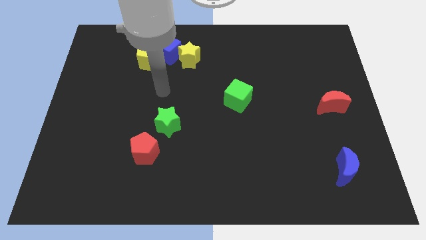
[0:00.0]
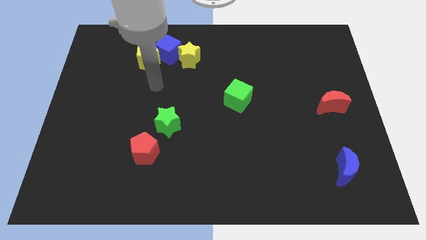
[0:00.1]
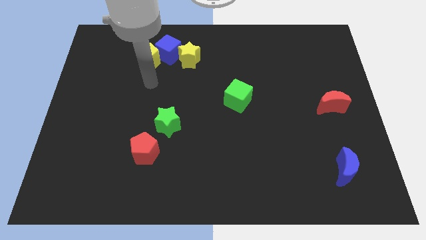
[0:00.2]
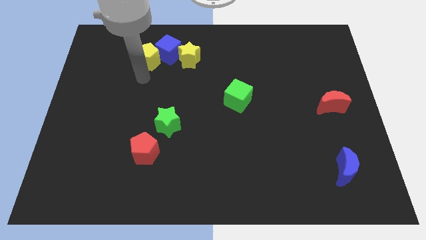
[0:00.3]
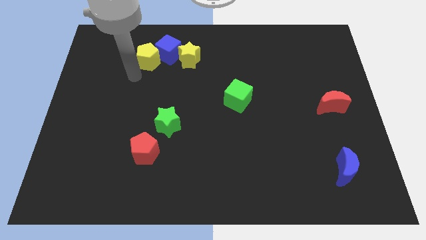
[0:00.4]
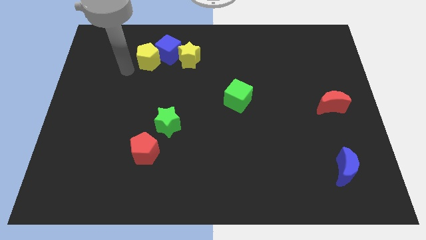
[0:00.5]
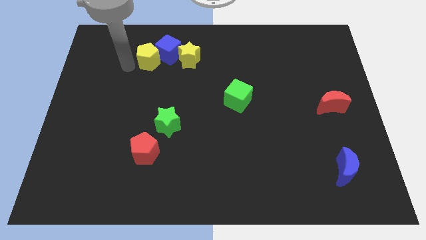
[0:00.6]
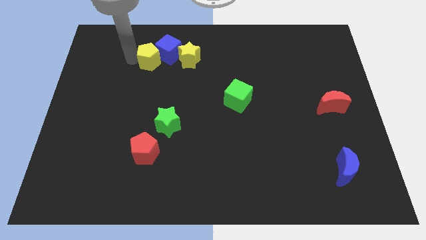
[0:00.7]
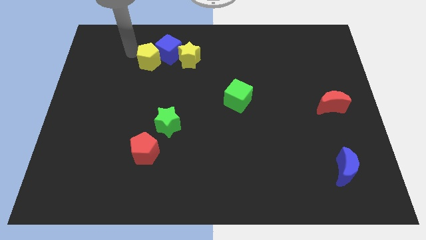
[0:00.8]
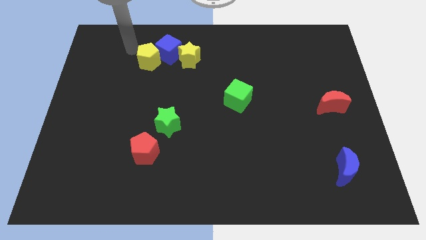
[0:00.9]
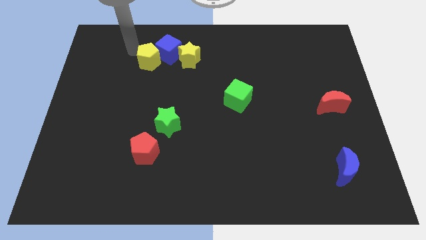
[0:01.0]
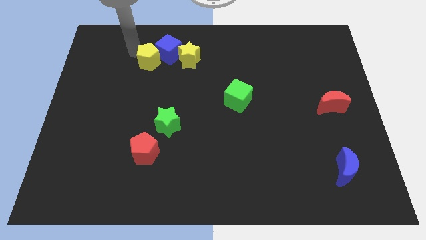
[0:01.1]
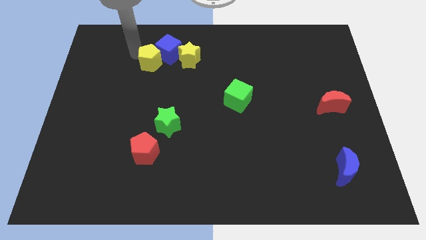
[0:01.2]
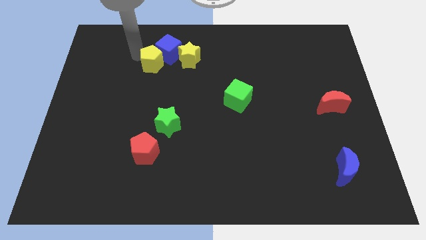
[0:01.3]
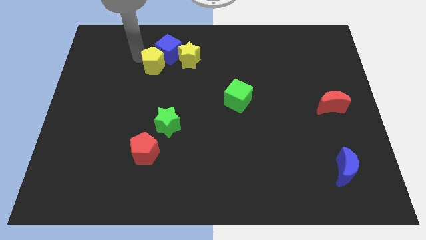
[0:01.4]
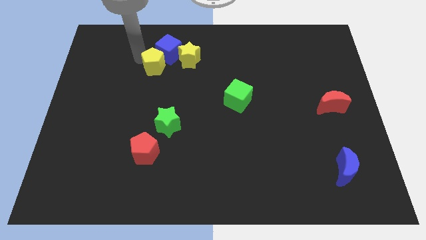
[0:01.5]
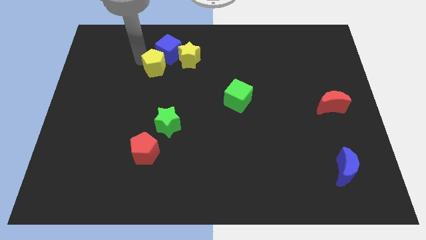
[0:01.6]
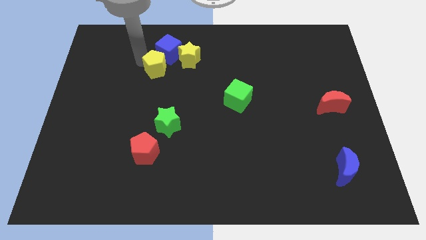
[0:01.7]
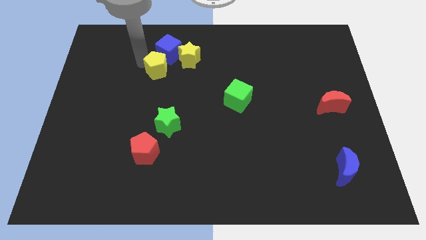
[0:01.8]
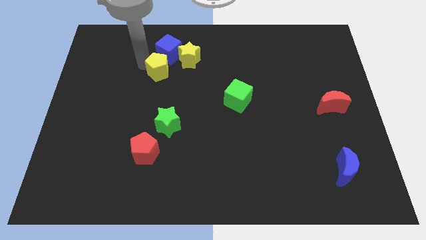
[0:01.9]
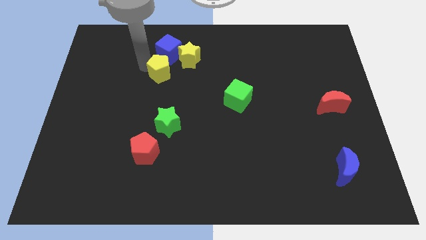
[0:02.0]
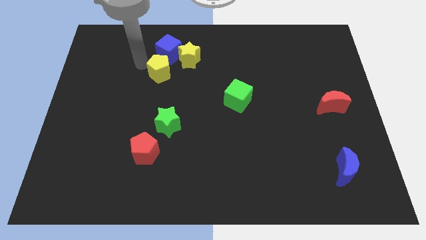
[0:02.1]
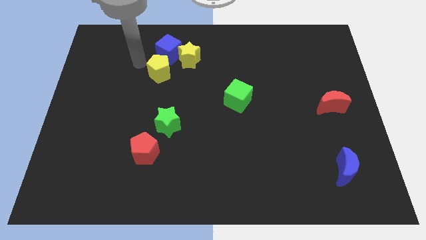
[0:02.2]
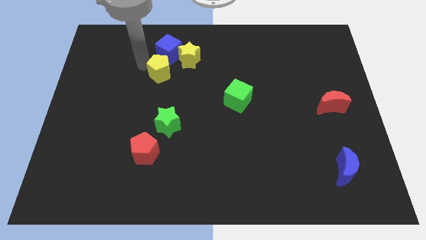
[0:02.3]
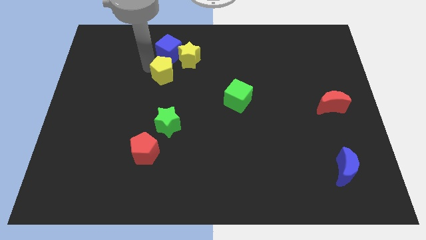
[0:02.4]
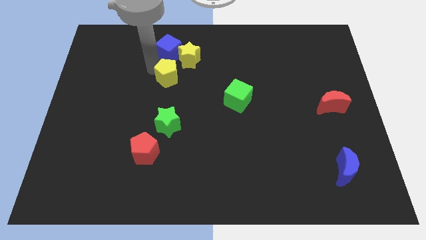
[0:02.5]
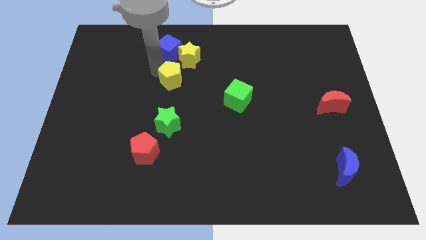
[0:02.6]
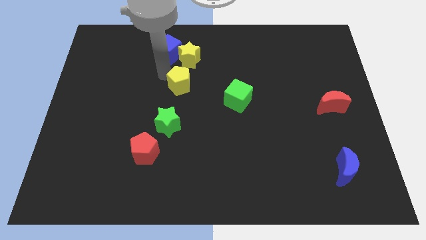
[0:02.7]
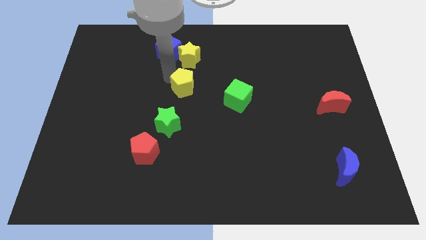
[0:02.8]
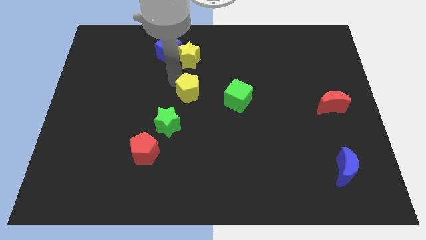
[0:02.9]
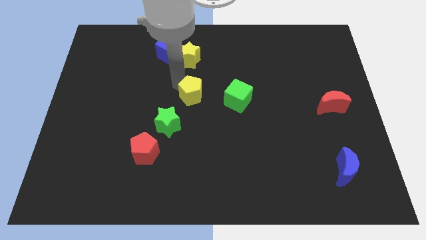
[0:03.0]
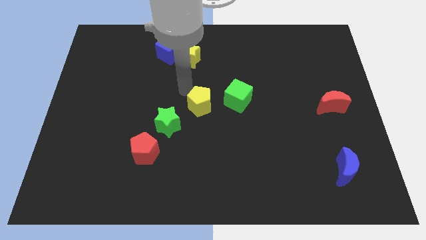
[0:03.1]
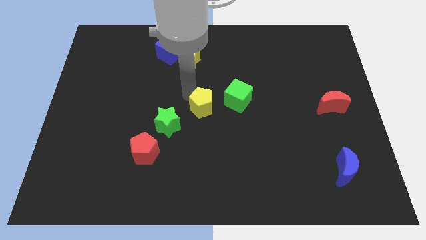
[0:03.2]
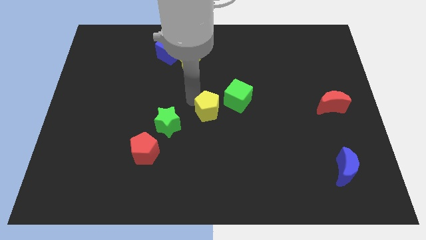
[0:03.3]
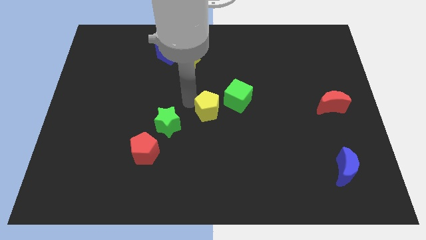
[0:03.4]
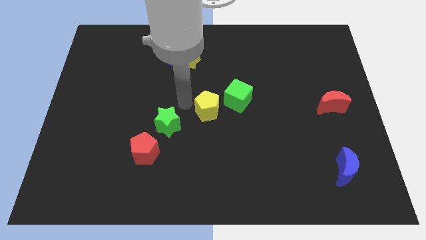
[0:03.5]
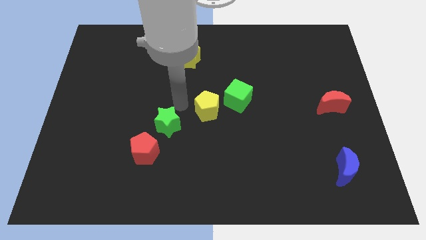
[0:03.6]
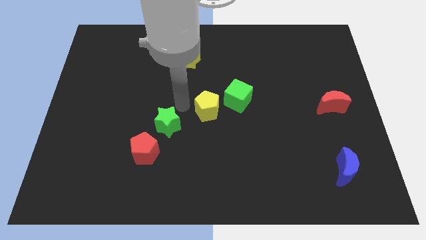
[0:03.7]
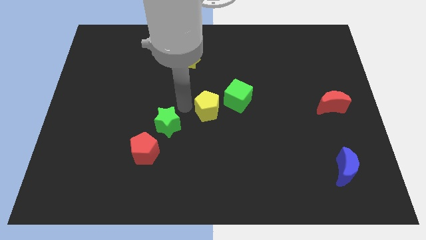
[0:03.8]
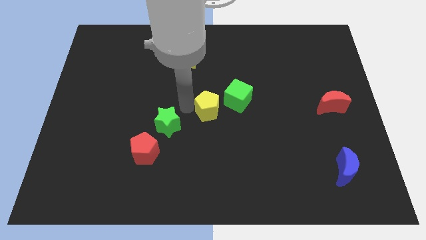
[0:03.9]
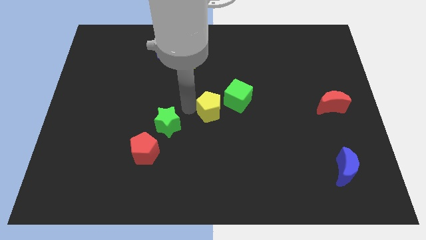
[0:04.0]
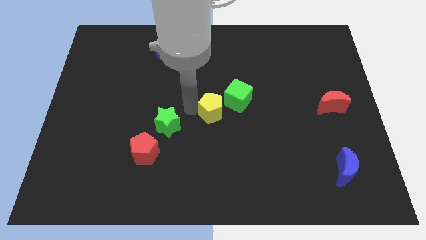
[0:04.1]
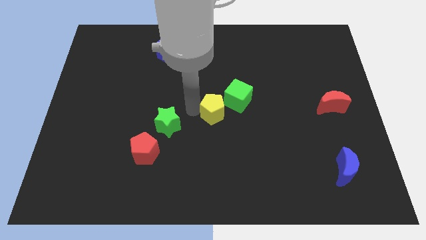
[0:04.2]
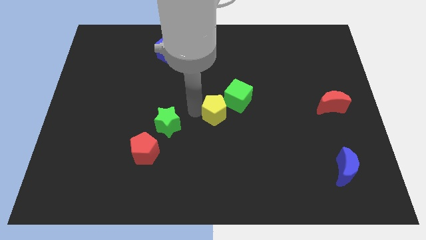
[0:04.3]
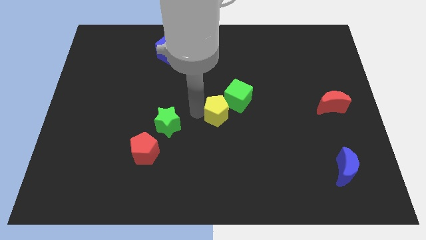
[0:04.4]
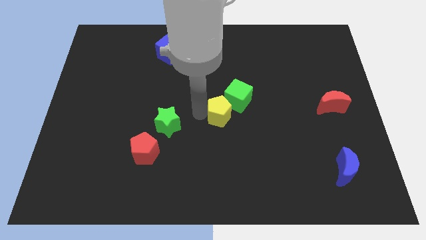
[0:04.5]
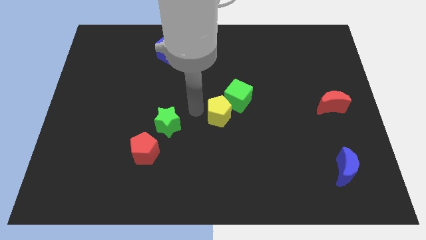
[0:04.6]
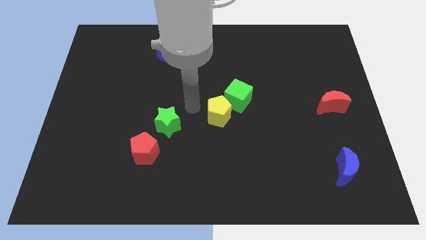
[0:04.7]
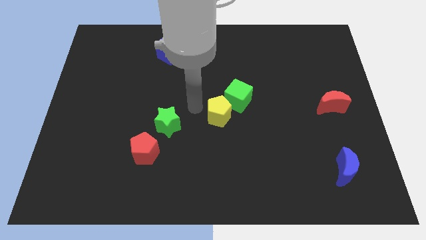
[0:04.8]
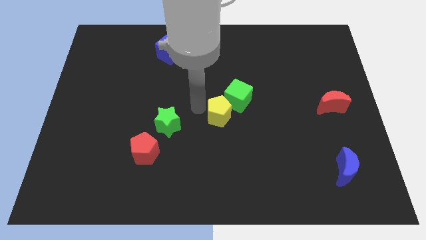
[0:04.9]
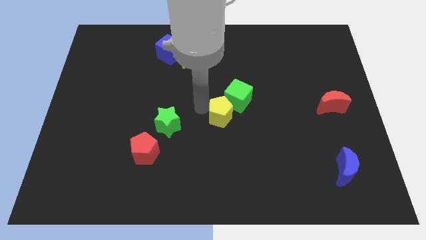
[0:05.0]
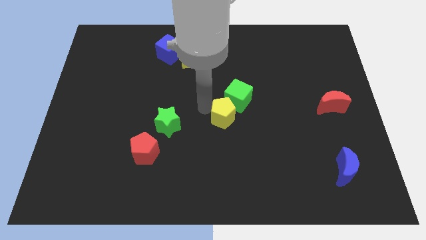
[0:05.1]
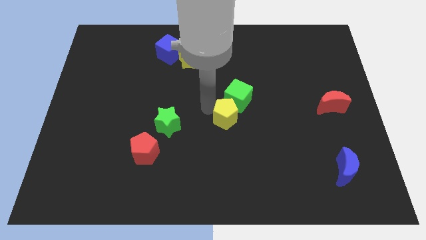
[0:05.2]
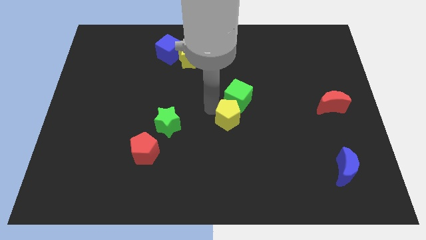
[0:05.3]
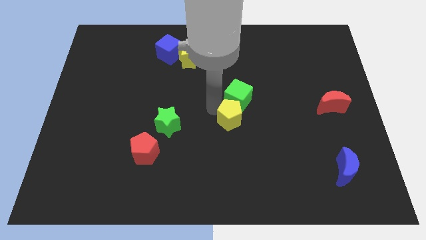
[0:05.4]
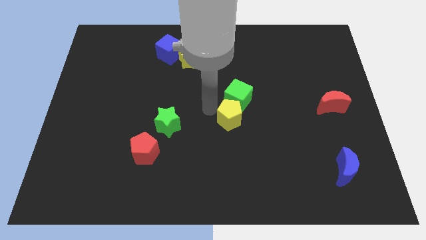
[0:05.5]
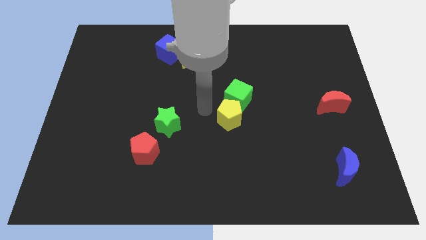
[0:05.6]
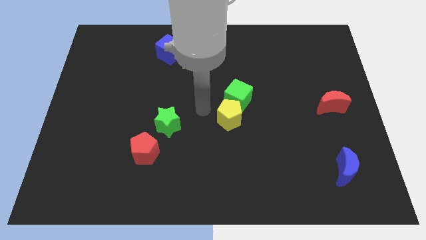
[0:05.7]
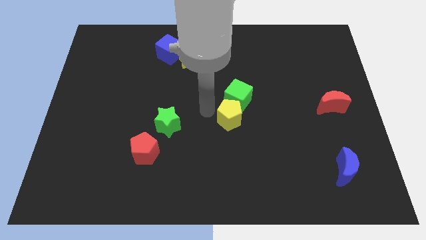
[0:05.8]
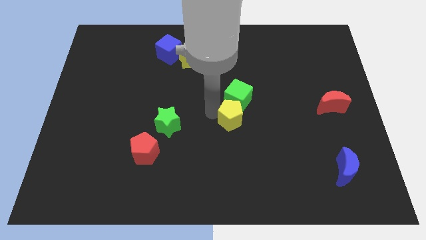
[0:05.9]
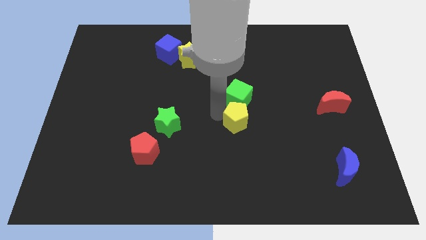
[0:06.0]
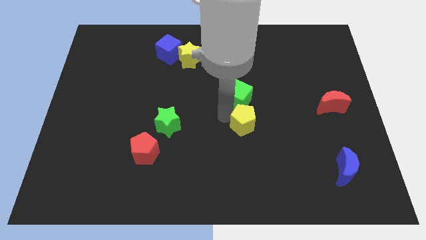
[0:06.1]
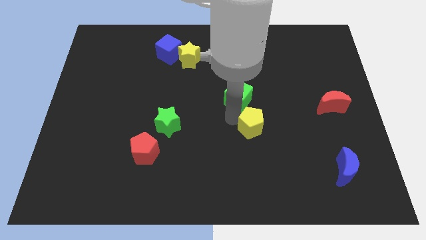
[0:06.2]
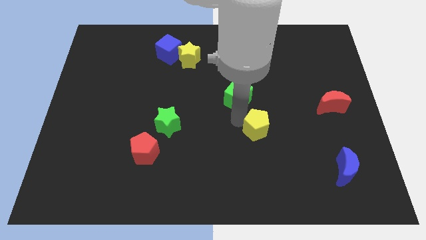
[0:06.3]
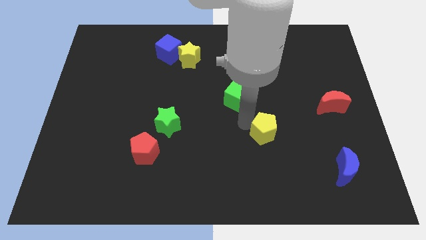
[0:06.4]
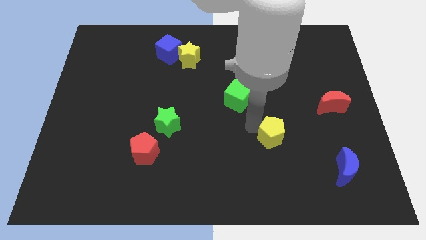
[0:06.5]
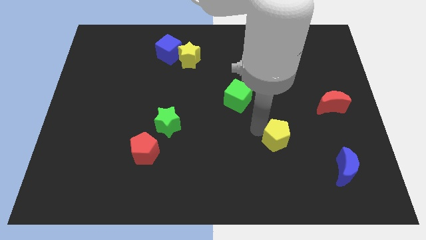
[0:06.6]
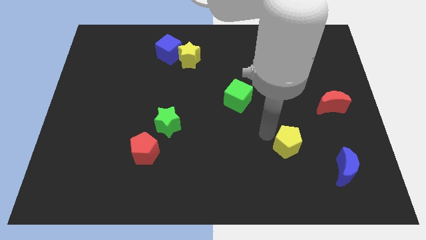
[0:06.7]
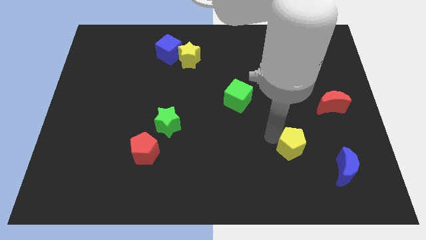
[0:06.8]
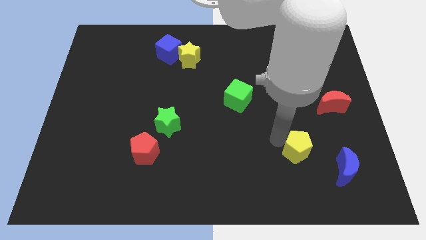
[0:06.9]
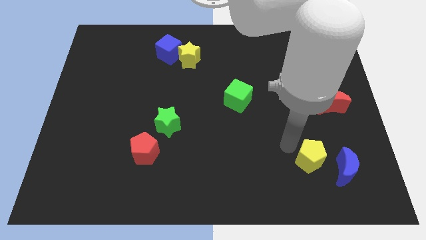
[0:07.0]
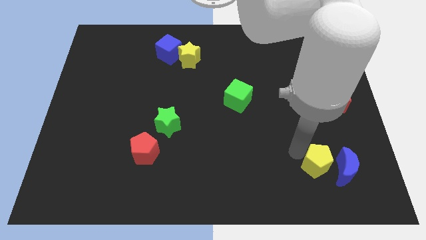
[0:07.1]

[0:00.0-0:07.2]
slide the yellow pentagon towards the blue moon

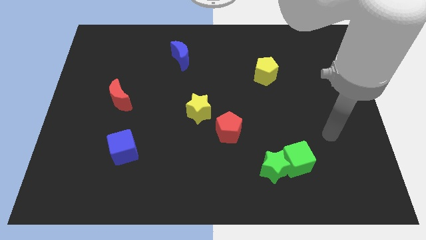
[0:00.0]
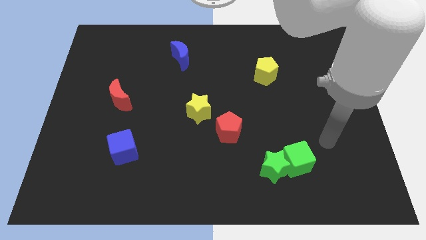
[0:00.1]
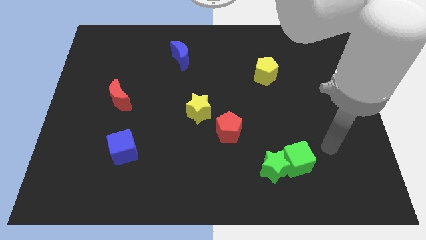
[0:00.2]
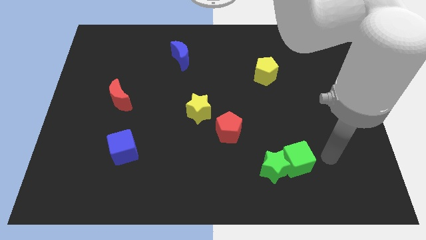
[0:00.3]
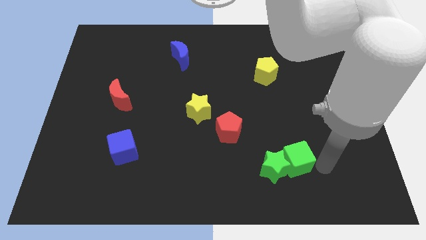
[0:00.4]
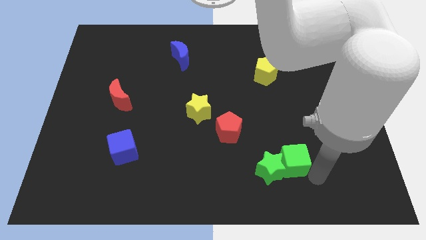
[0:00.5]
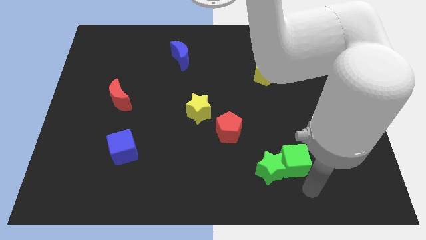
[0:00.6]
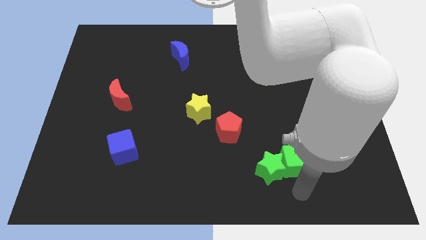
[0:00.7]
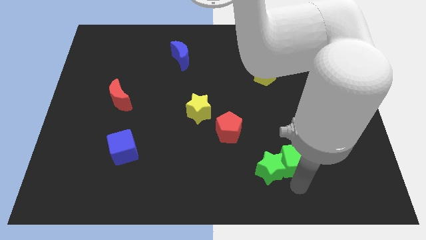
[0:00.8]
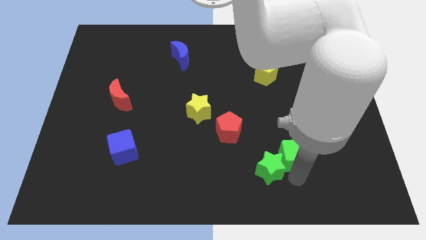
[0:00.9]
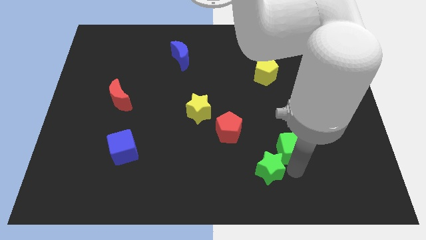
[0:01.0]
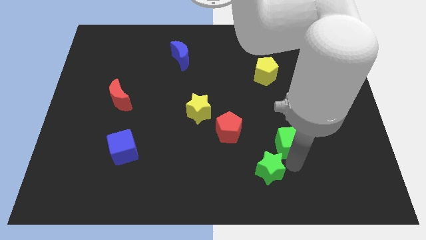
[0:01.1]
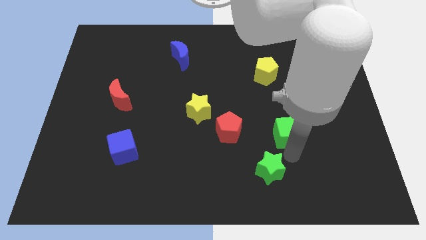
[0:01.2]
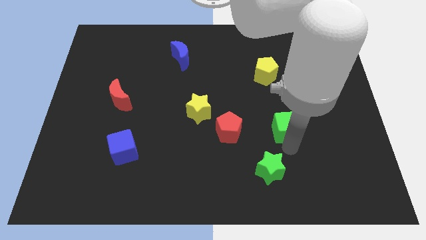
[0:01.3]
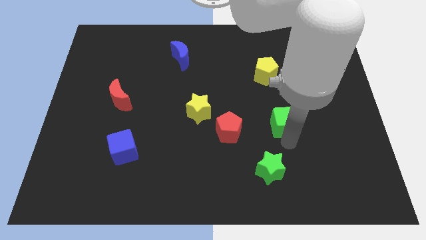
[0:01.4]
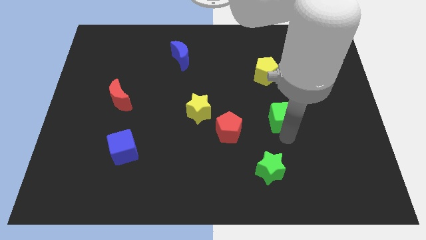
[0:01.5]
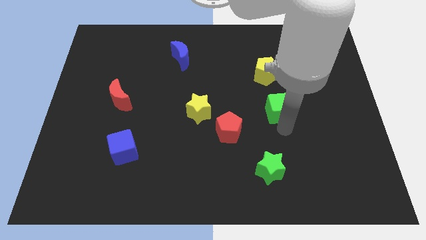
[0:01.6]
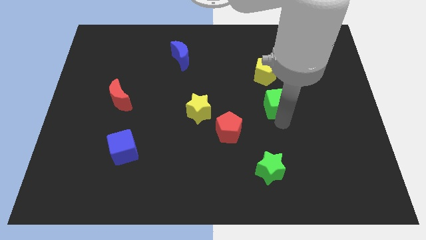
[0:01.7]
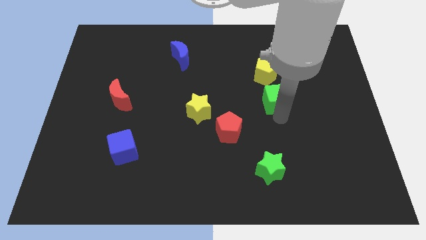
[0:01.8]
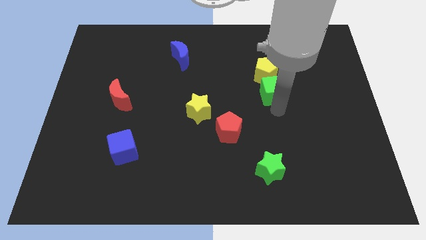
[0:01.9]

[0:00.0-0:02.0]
put the green cube close to the yellow pentagon
